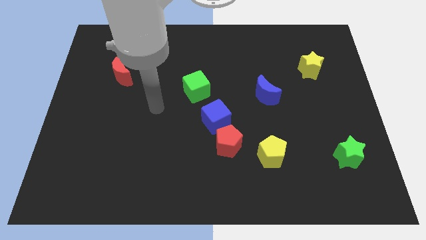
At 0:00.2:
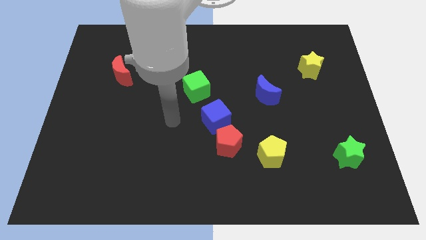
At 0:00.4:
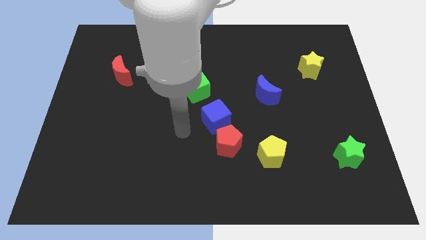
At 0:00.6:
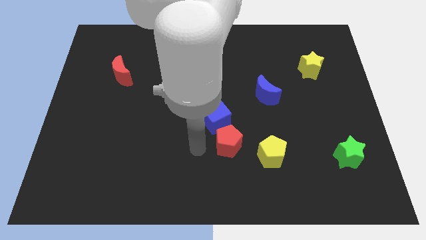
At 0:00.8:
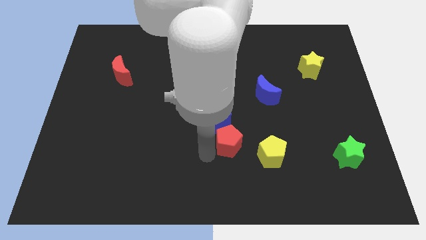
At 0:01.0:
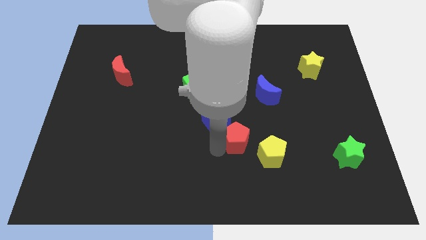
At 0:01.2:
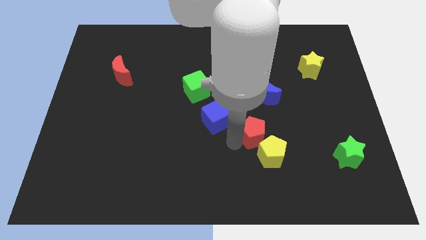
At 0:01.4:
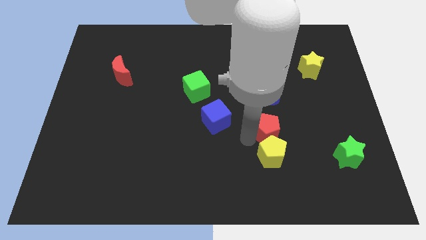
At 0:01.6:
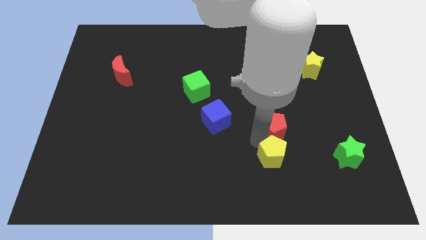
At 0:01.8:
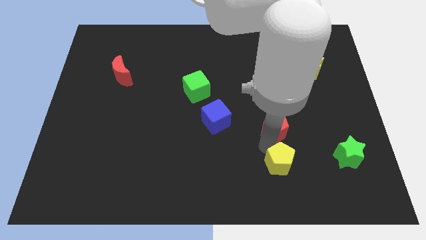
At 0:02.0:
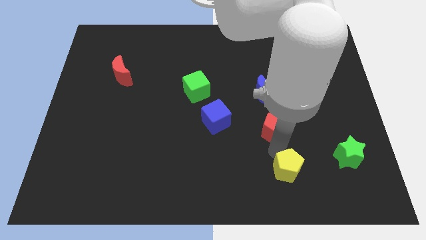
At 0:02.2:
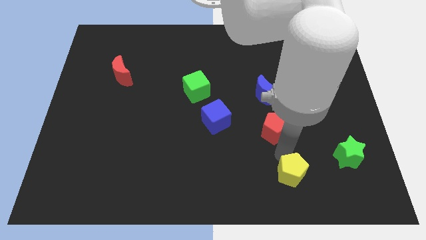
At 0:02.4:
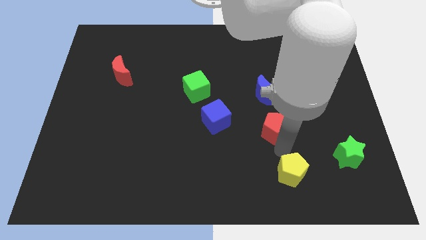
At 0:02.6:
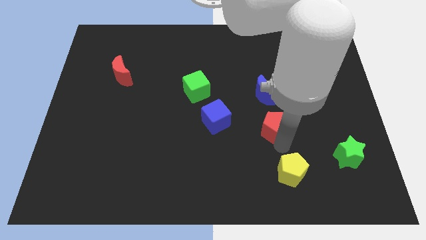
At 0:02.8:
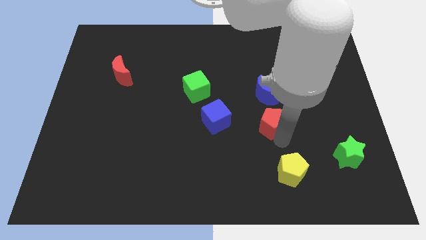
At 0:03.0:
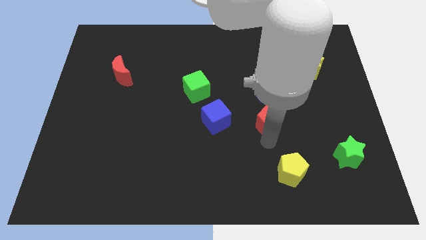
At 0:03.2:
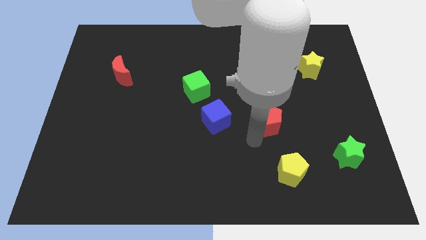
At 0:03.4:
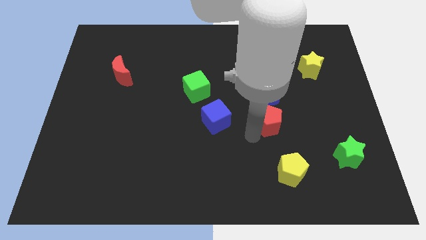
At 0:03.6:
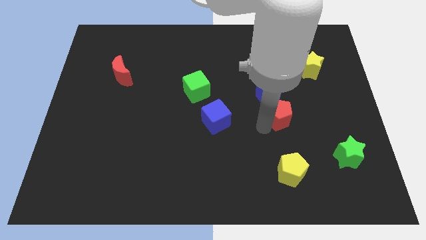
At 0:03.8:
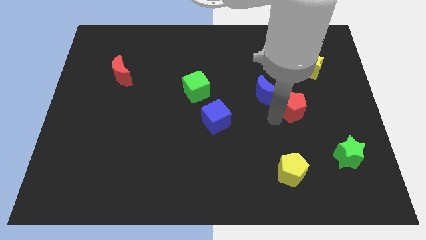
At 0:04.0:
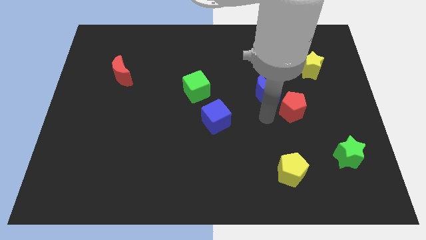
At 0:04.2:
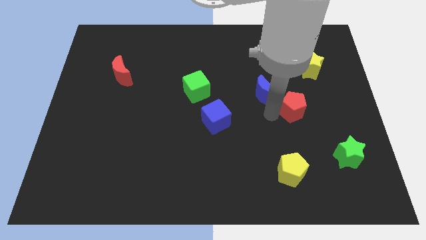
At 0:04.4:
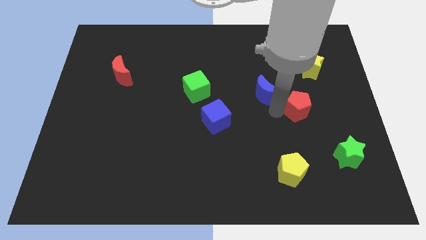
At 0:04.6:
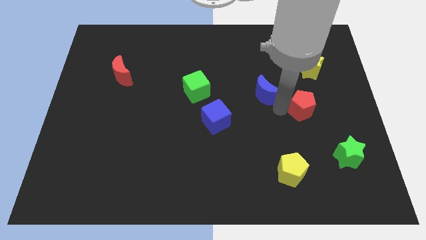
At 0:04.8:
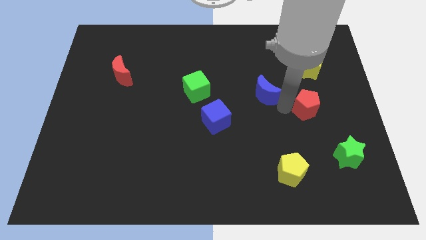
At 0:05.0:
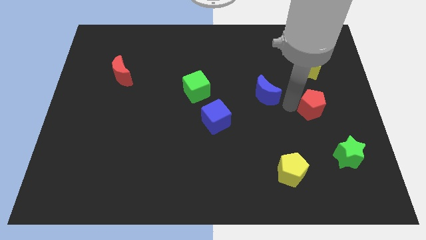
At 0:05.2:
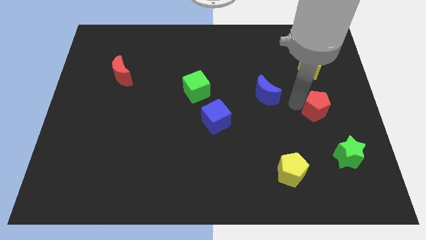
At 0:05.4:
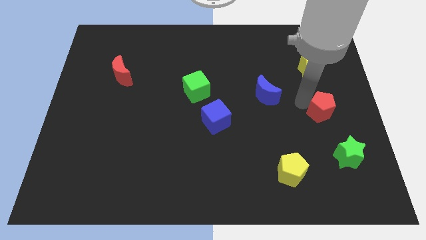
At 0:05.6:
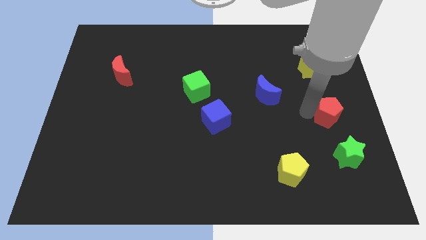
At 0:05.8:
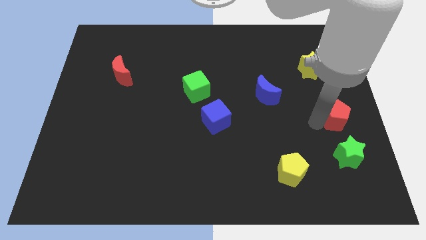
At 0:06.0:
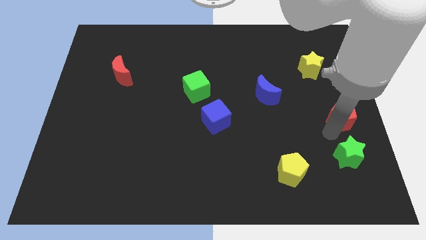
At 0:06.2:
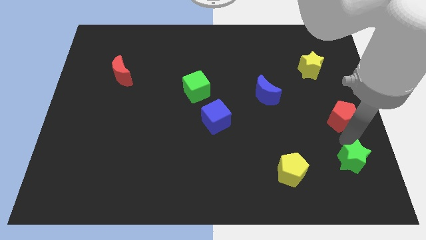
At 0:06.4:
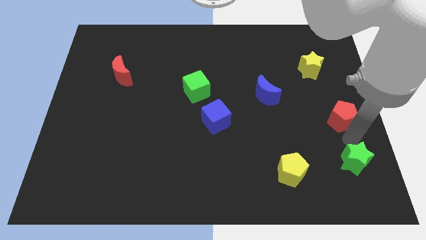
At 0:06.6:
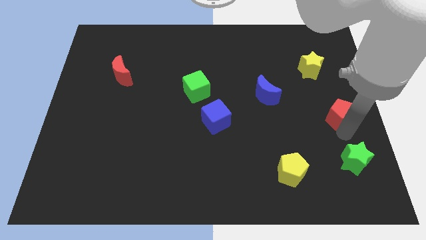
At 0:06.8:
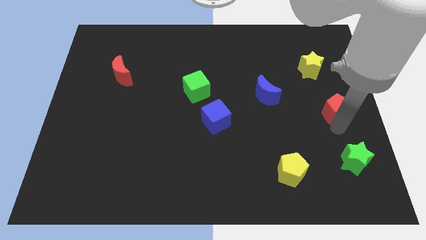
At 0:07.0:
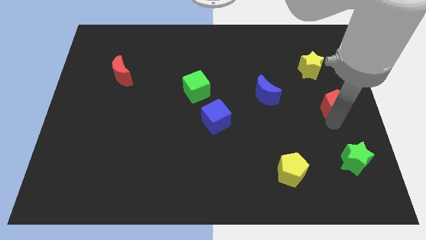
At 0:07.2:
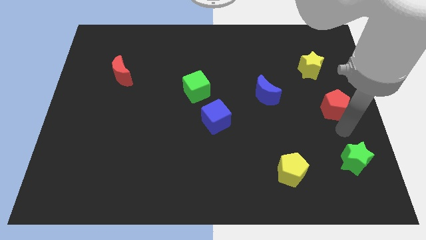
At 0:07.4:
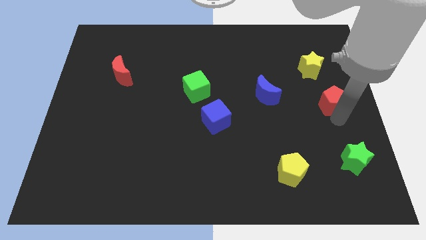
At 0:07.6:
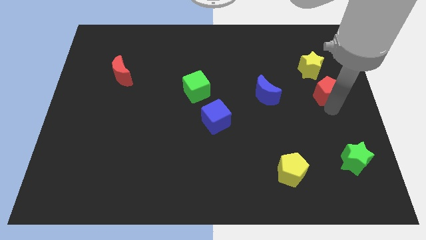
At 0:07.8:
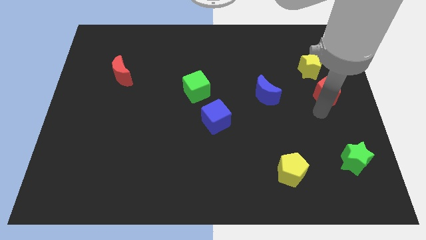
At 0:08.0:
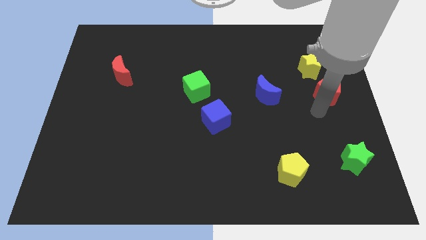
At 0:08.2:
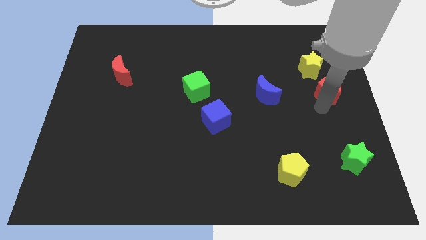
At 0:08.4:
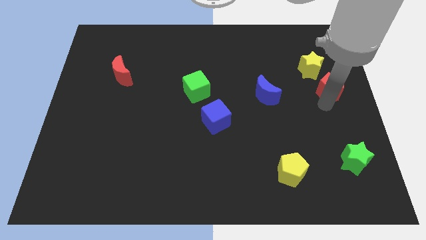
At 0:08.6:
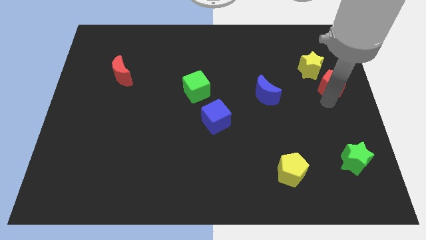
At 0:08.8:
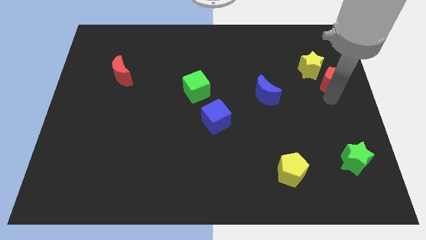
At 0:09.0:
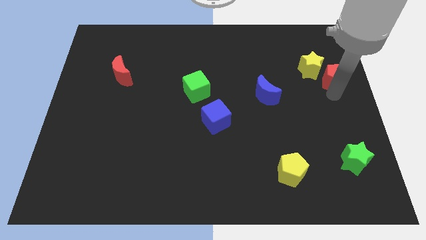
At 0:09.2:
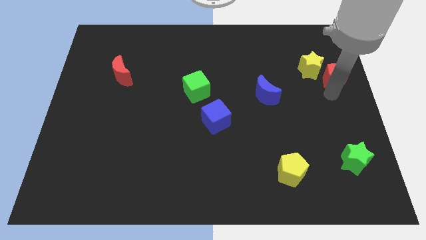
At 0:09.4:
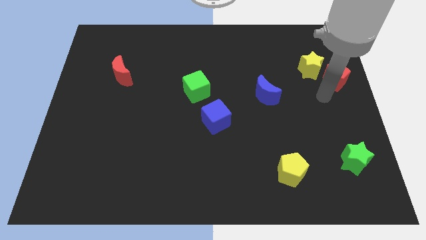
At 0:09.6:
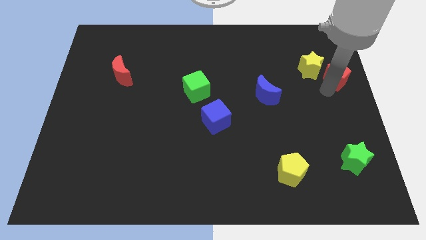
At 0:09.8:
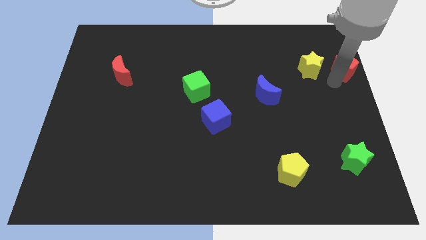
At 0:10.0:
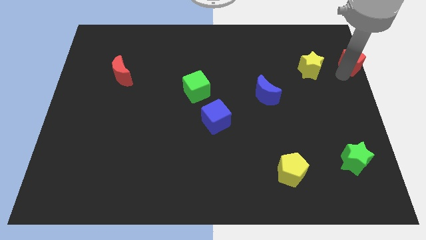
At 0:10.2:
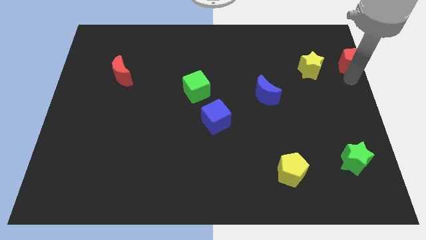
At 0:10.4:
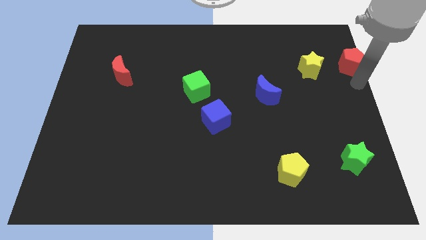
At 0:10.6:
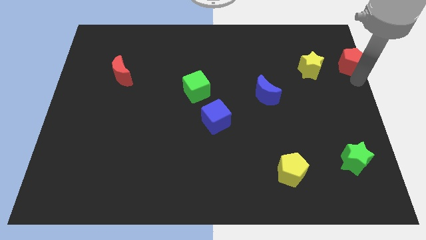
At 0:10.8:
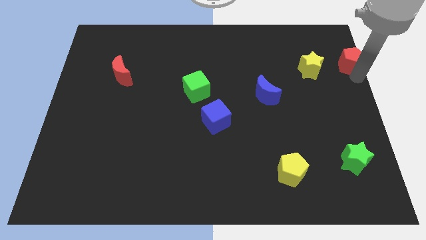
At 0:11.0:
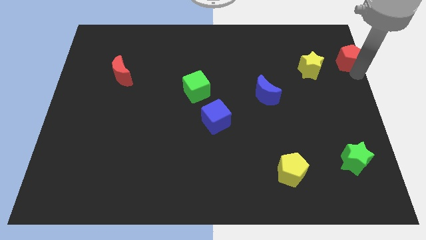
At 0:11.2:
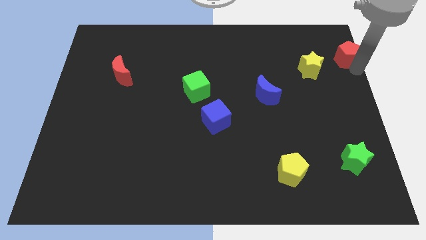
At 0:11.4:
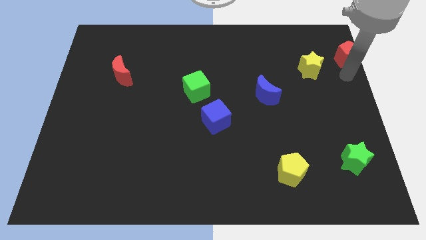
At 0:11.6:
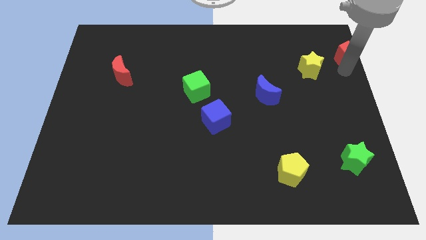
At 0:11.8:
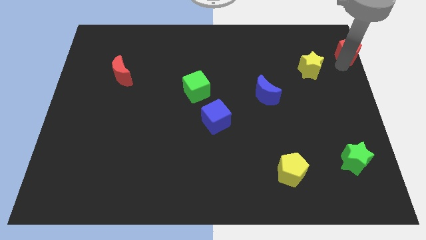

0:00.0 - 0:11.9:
push the red pentagon to the upper right corner

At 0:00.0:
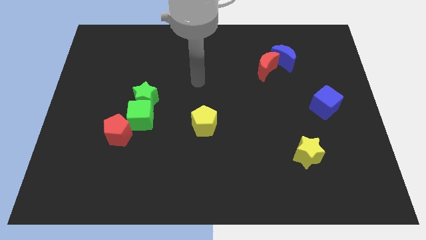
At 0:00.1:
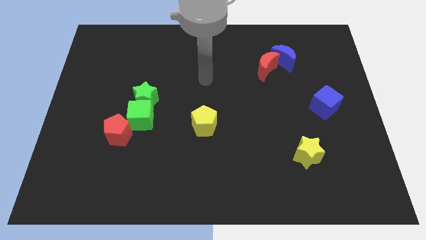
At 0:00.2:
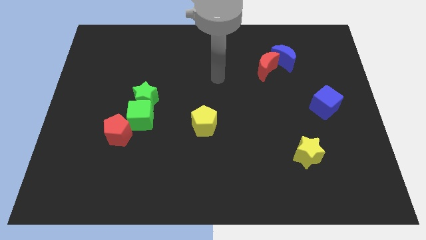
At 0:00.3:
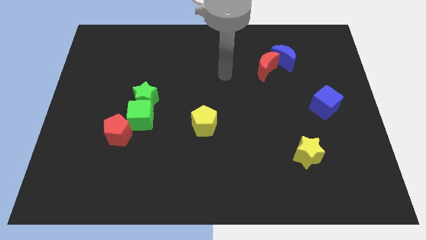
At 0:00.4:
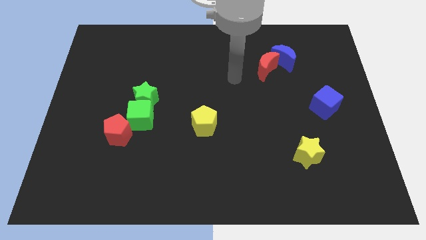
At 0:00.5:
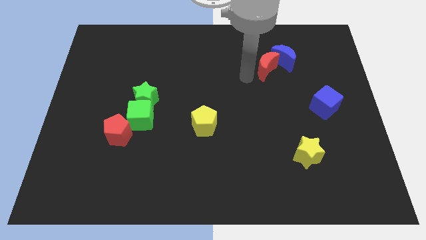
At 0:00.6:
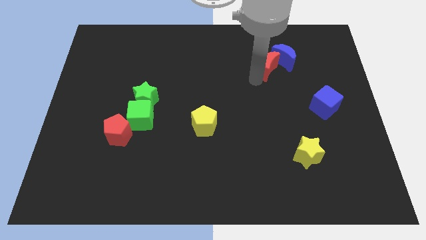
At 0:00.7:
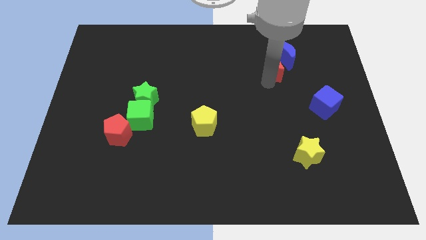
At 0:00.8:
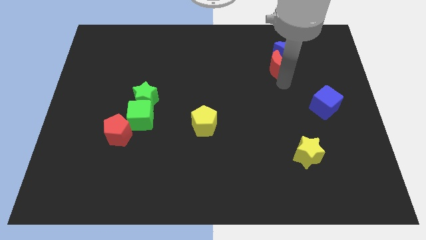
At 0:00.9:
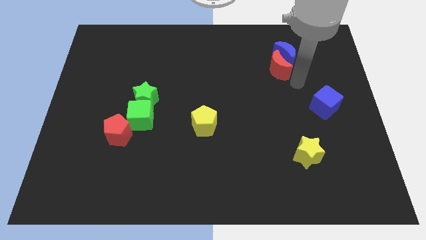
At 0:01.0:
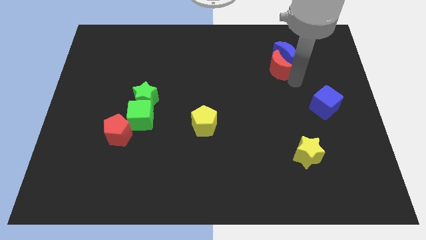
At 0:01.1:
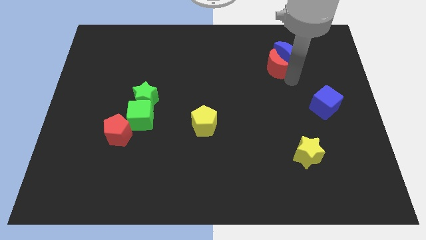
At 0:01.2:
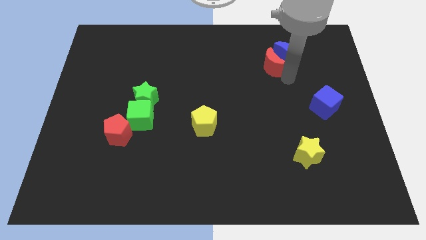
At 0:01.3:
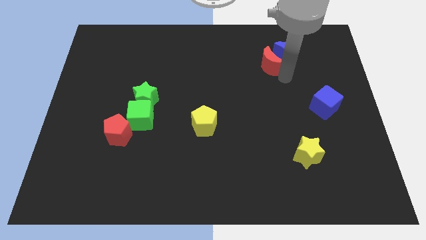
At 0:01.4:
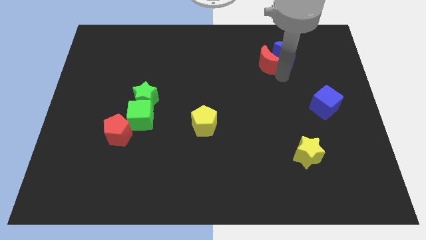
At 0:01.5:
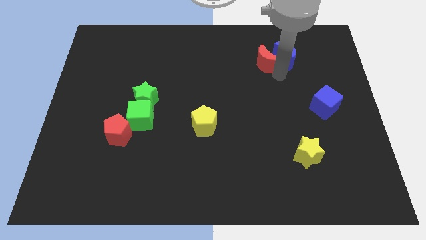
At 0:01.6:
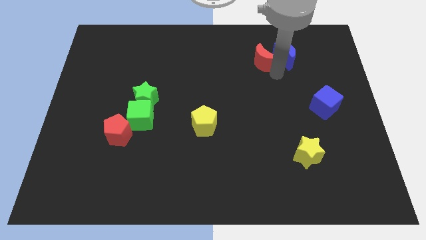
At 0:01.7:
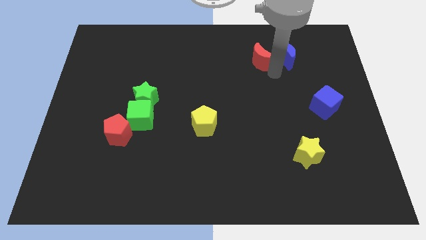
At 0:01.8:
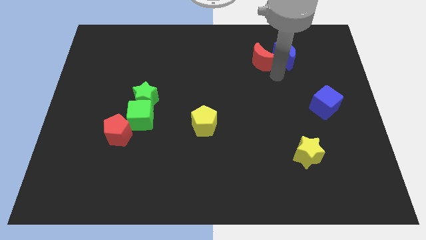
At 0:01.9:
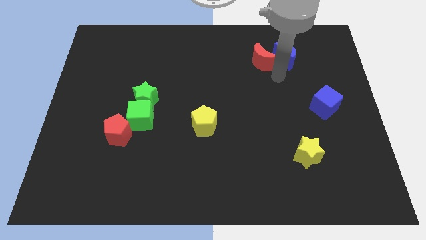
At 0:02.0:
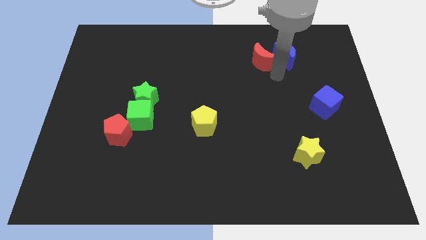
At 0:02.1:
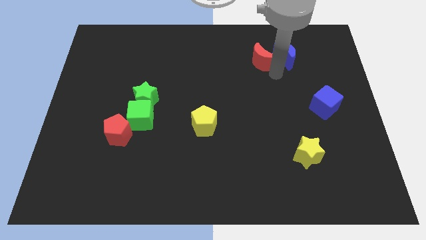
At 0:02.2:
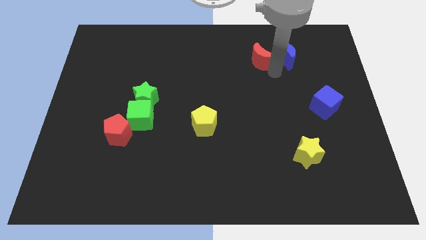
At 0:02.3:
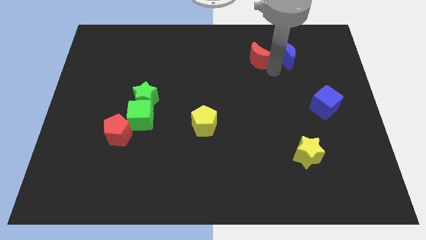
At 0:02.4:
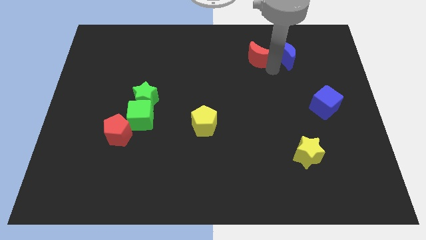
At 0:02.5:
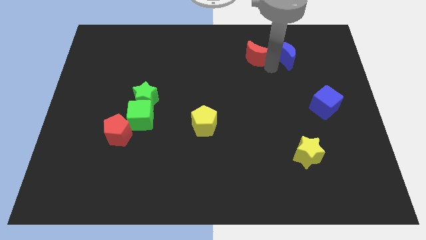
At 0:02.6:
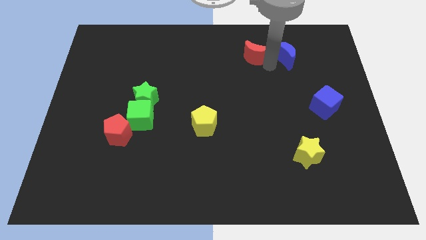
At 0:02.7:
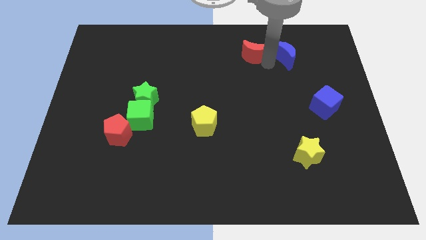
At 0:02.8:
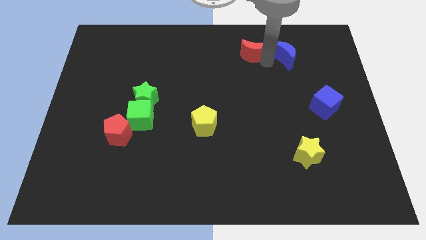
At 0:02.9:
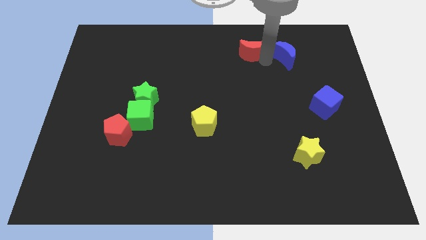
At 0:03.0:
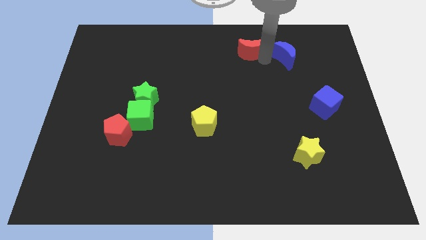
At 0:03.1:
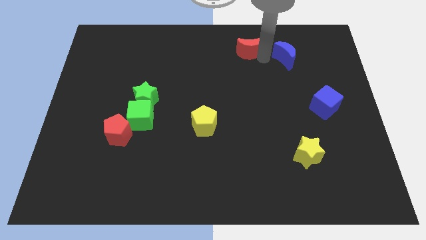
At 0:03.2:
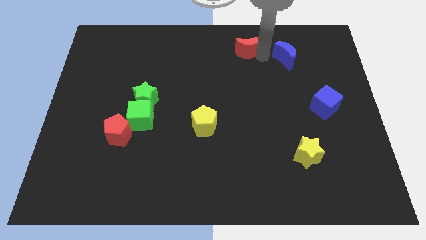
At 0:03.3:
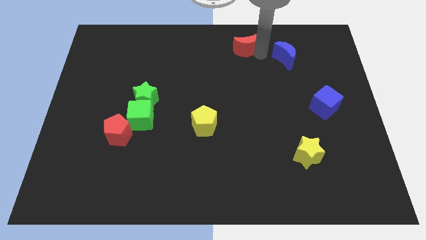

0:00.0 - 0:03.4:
move the red moon to the top
